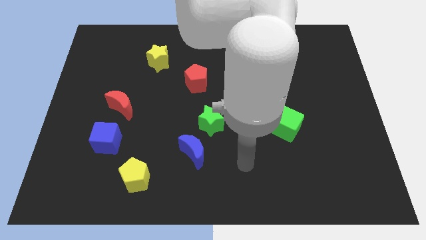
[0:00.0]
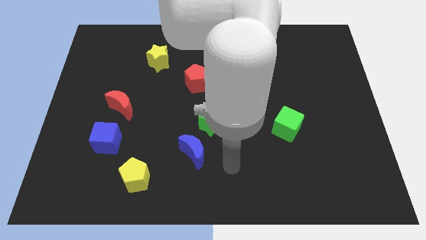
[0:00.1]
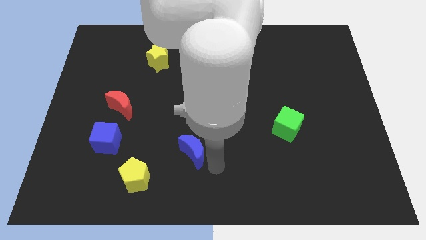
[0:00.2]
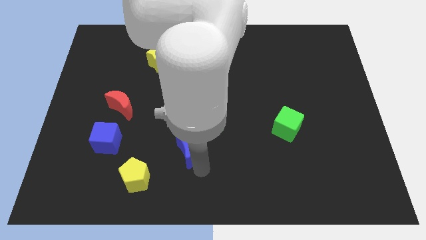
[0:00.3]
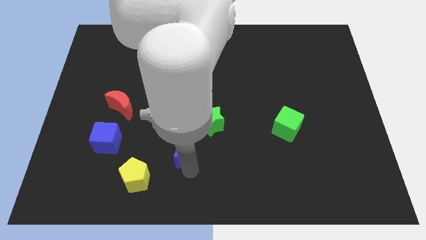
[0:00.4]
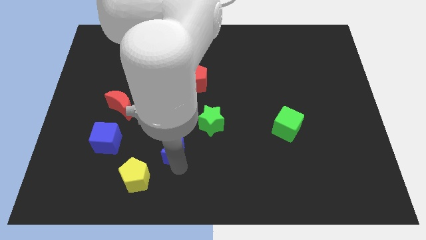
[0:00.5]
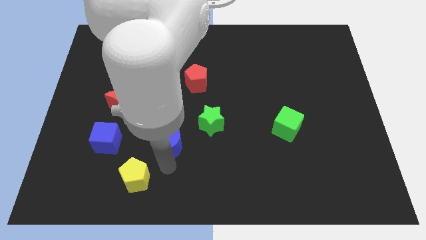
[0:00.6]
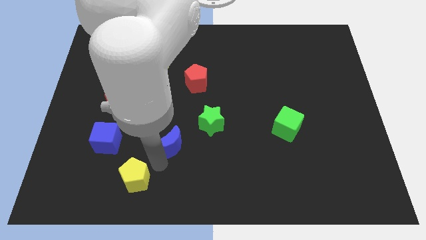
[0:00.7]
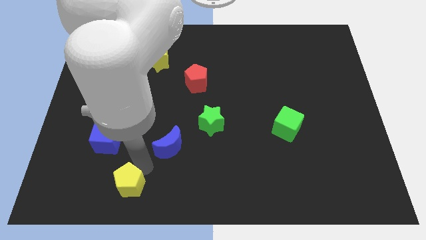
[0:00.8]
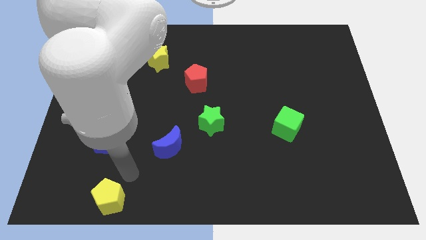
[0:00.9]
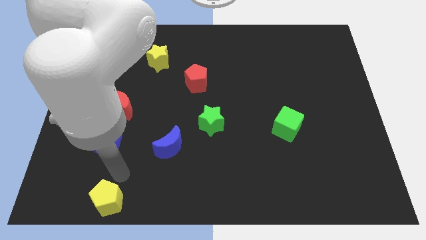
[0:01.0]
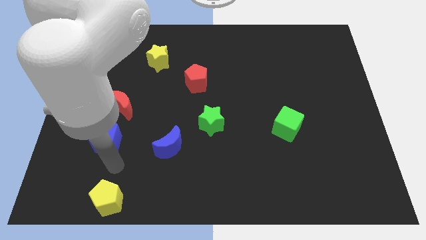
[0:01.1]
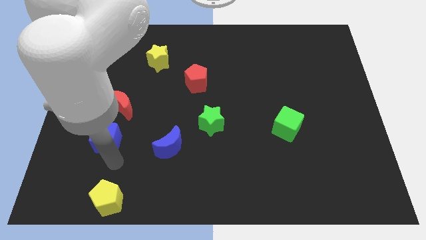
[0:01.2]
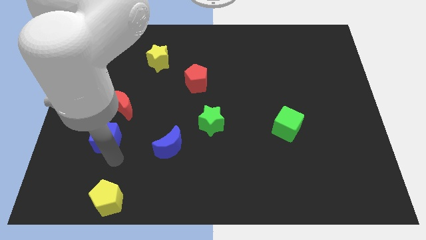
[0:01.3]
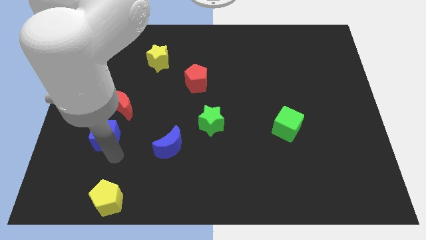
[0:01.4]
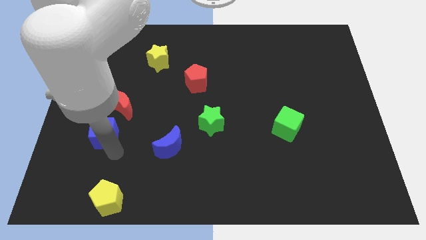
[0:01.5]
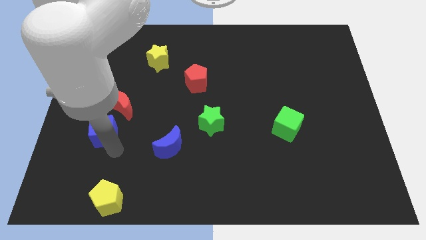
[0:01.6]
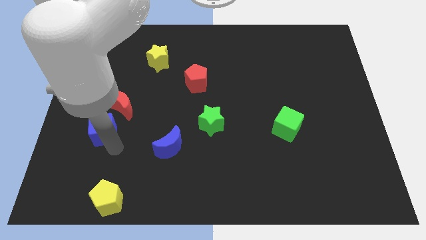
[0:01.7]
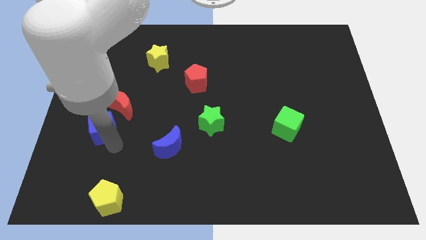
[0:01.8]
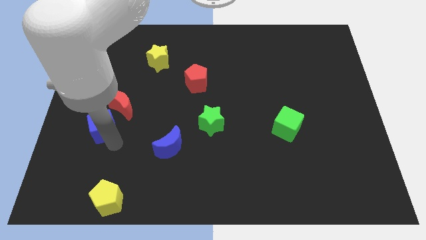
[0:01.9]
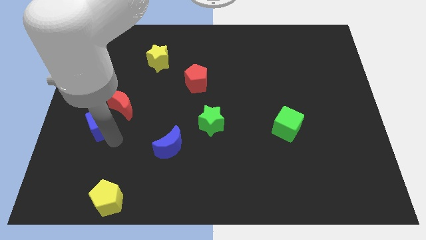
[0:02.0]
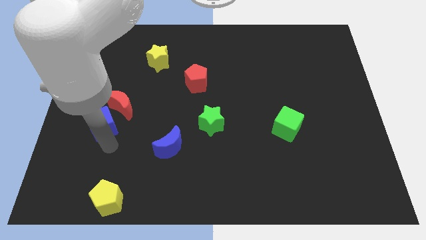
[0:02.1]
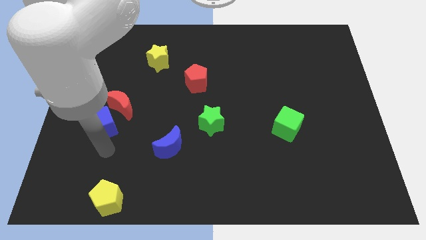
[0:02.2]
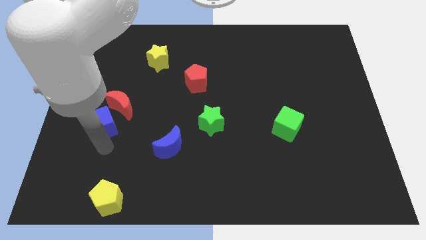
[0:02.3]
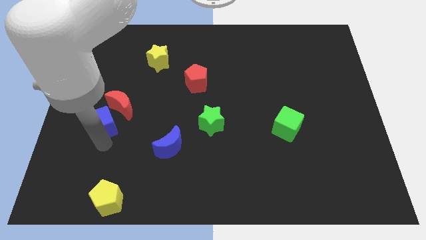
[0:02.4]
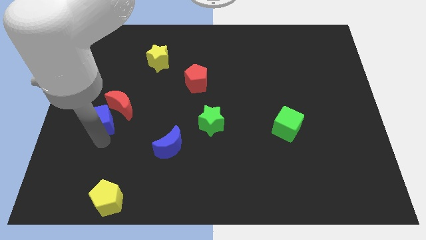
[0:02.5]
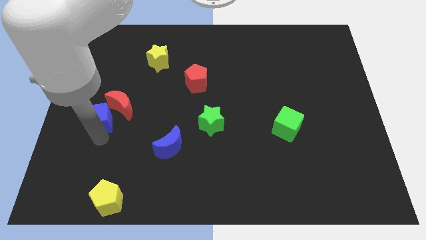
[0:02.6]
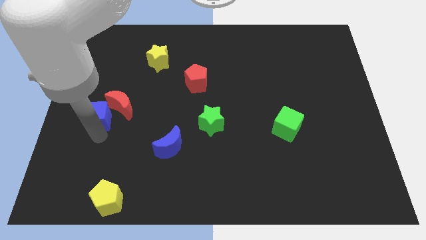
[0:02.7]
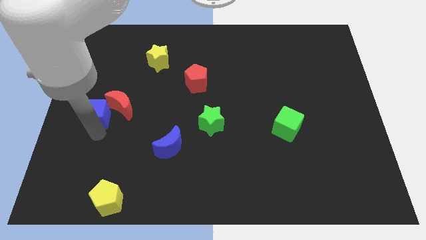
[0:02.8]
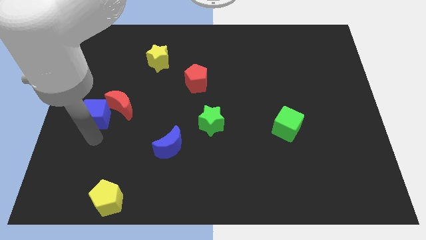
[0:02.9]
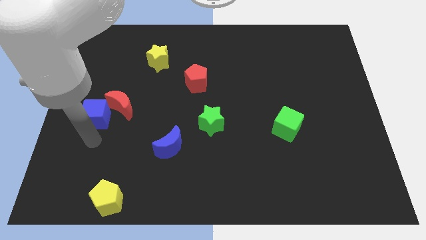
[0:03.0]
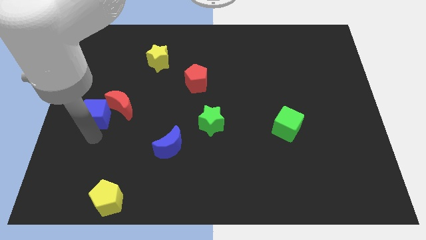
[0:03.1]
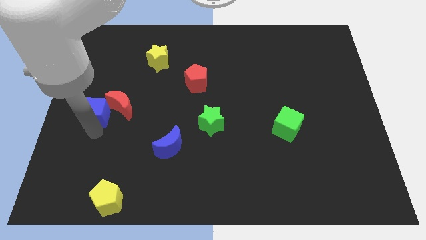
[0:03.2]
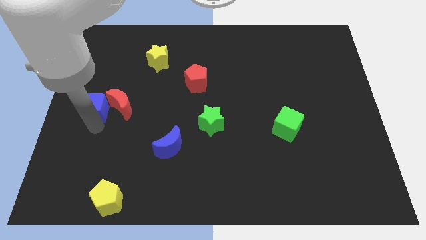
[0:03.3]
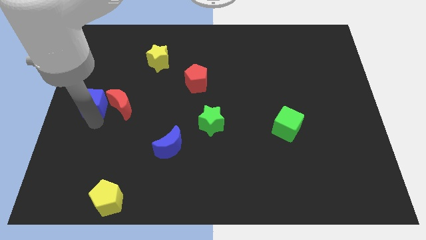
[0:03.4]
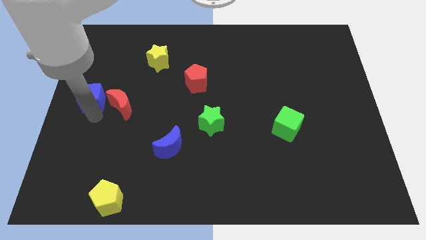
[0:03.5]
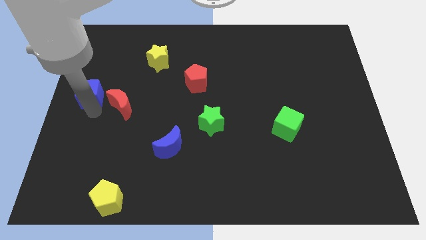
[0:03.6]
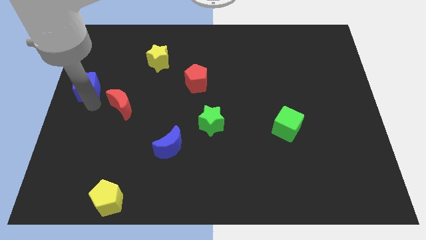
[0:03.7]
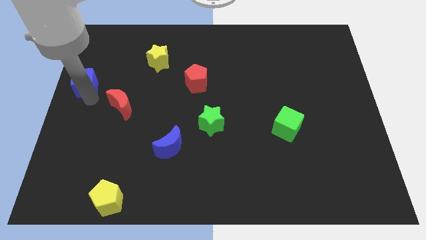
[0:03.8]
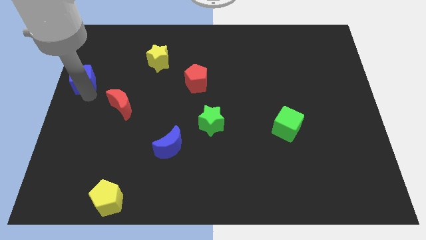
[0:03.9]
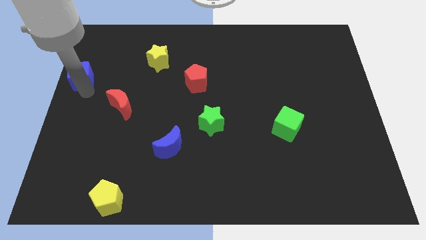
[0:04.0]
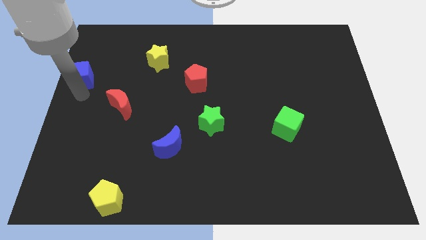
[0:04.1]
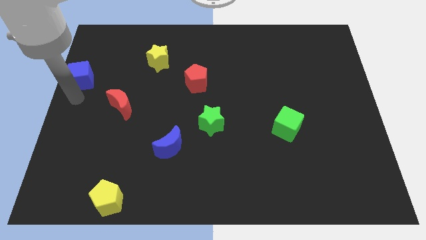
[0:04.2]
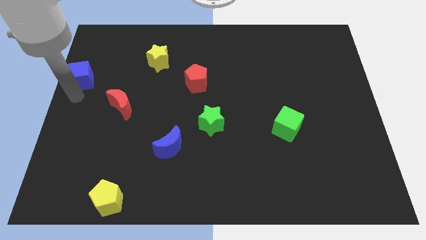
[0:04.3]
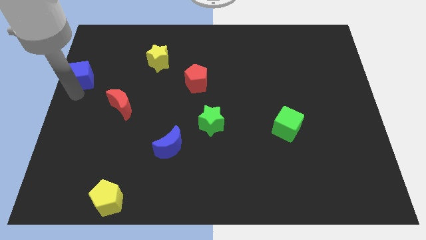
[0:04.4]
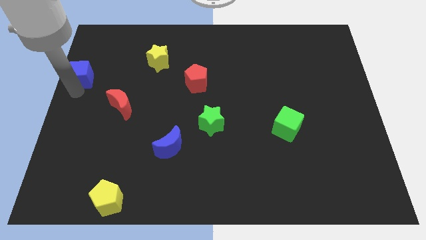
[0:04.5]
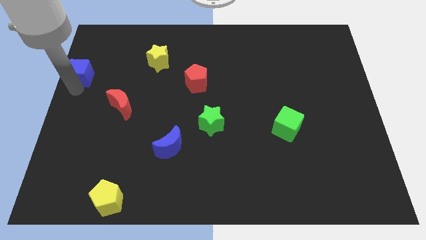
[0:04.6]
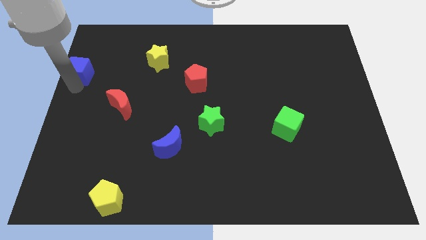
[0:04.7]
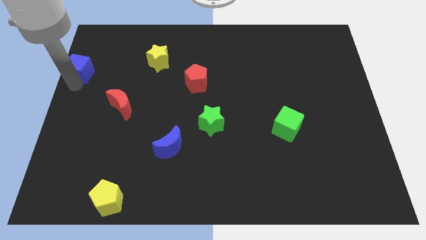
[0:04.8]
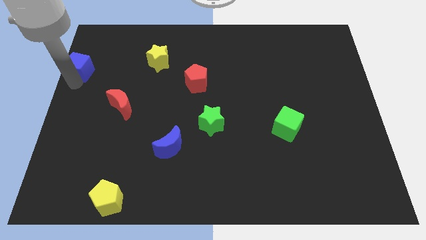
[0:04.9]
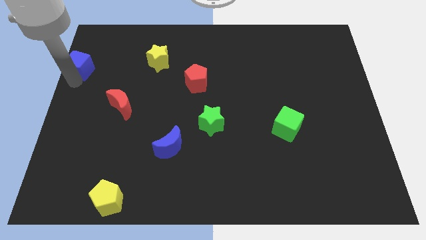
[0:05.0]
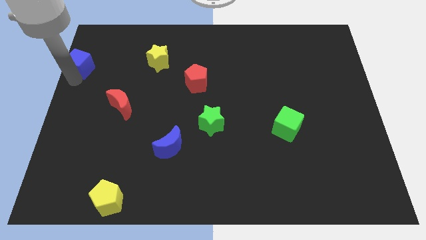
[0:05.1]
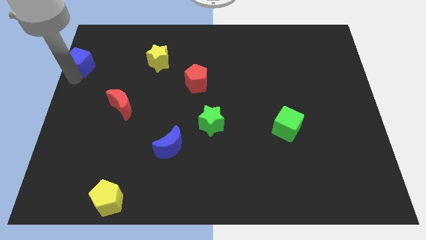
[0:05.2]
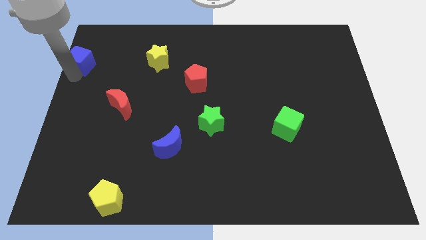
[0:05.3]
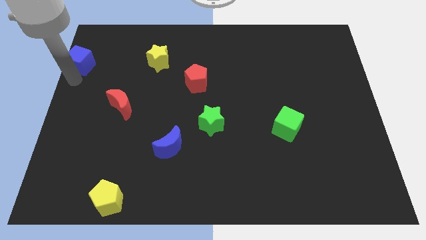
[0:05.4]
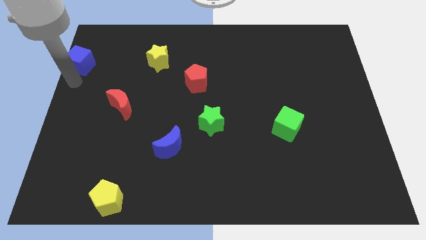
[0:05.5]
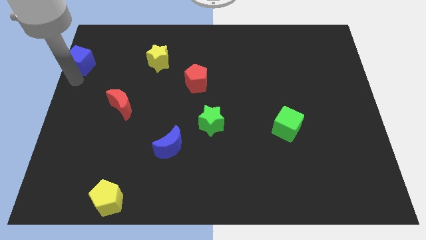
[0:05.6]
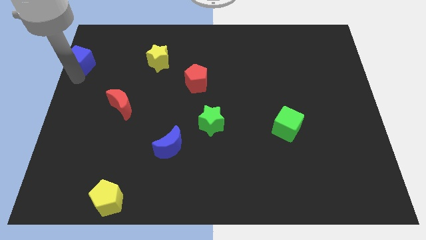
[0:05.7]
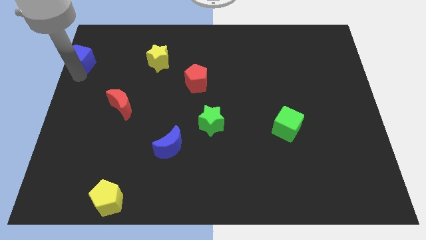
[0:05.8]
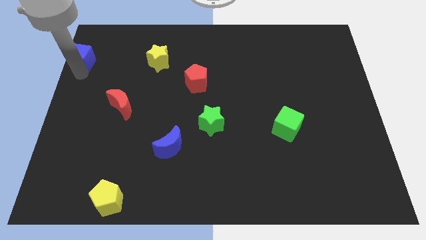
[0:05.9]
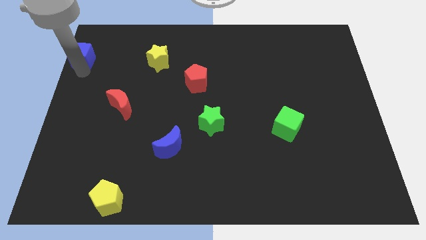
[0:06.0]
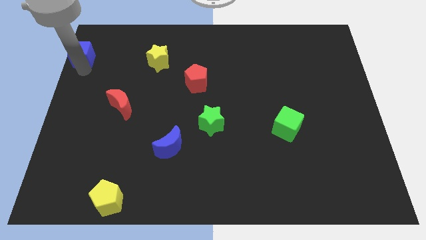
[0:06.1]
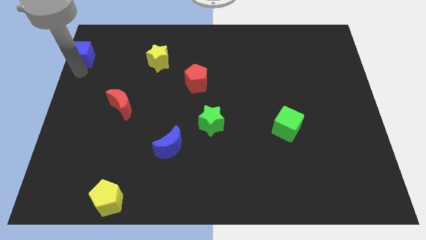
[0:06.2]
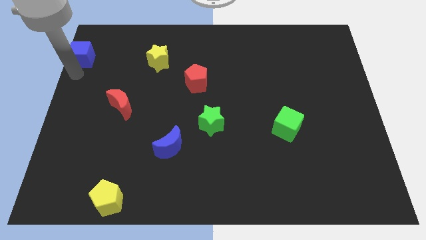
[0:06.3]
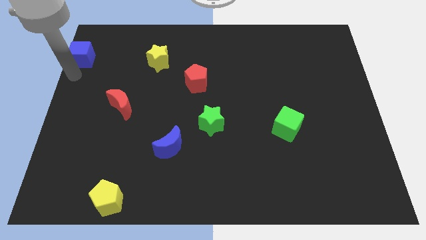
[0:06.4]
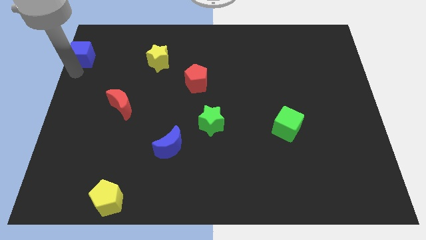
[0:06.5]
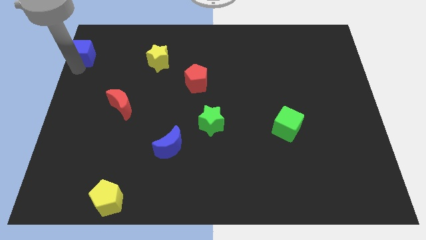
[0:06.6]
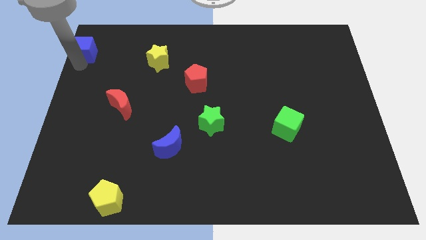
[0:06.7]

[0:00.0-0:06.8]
move the blue cube to the top left of the board

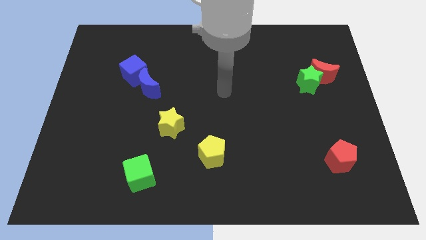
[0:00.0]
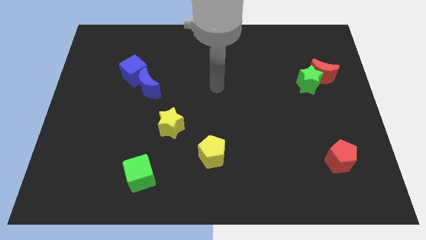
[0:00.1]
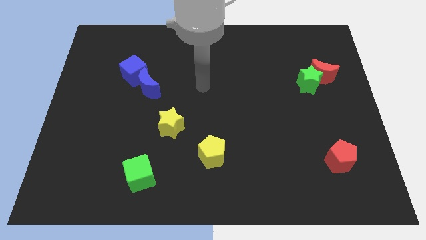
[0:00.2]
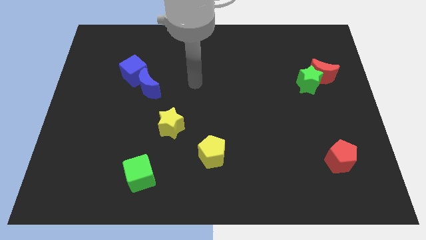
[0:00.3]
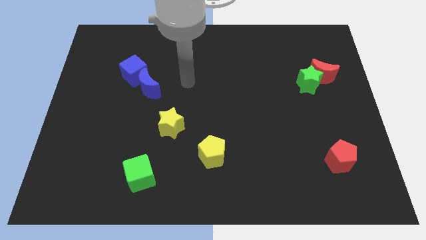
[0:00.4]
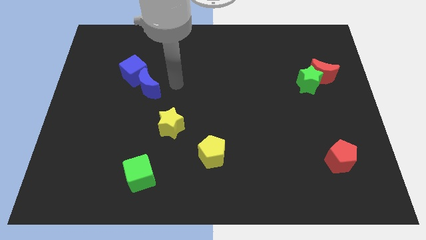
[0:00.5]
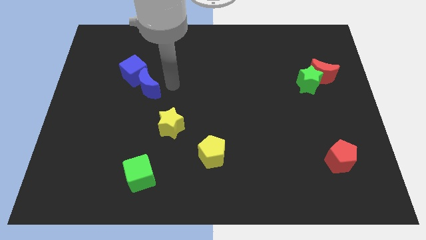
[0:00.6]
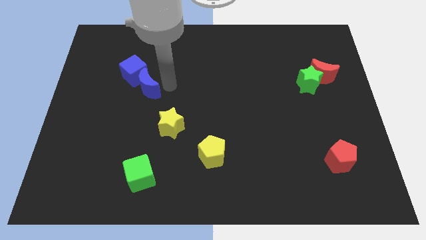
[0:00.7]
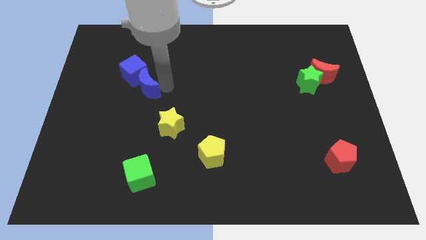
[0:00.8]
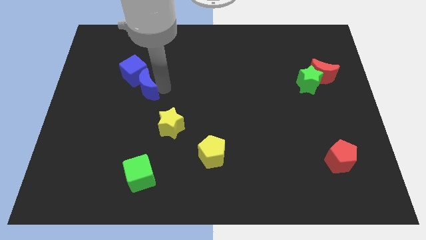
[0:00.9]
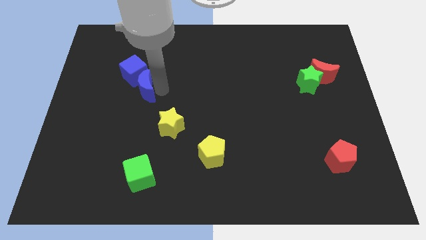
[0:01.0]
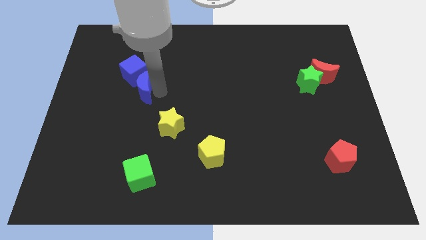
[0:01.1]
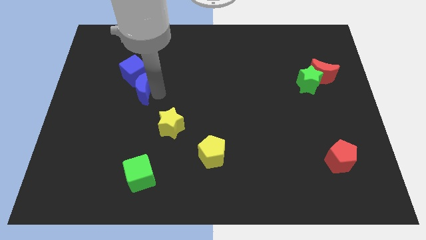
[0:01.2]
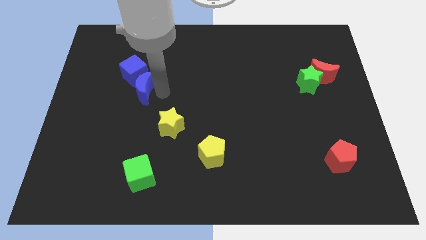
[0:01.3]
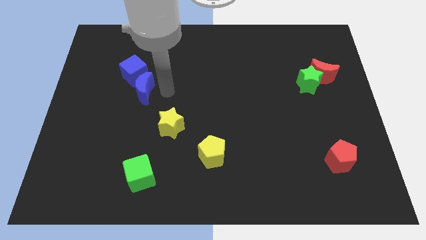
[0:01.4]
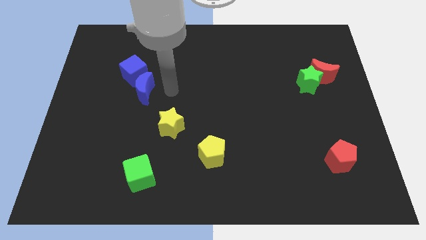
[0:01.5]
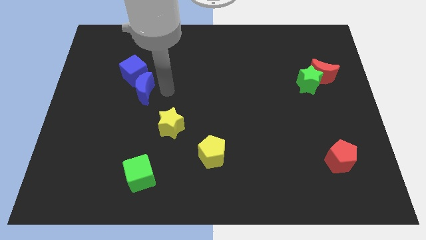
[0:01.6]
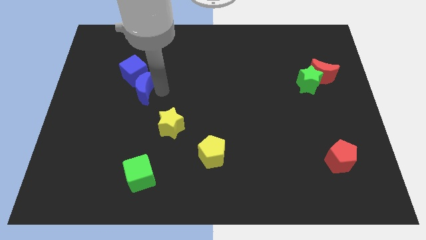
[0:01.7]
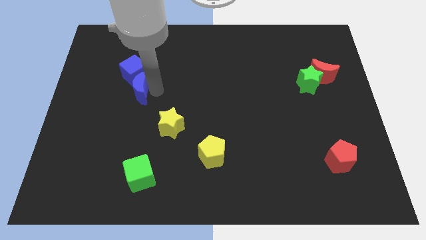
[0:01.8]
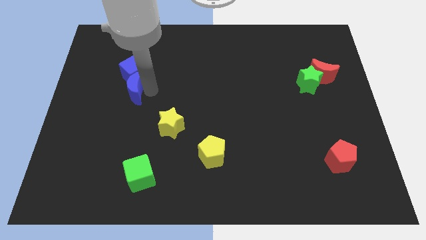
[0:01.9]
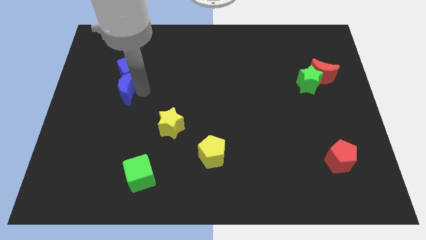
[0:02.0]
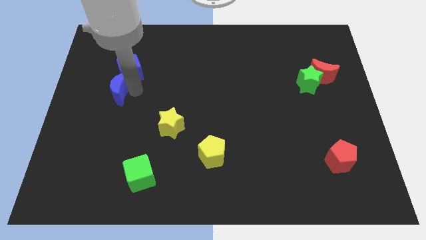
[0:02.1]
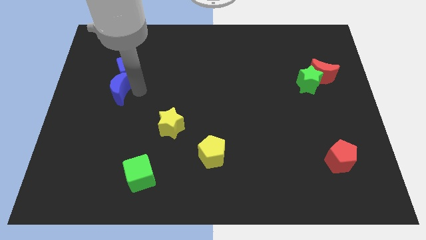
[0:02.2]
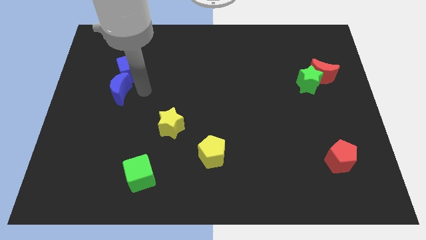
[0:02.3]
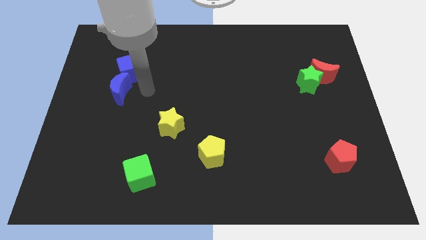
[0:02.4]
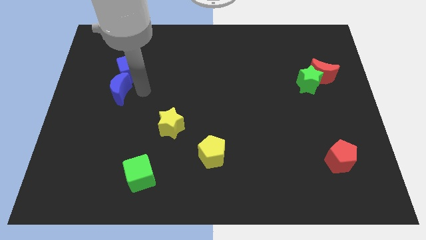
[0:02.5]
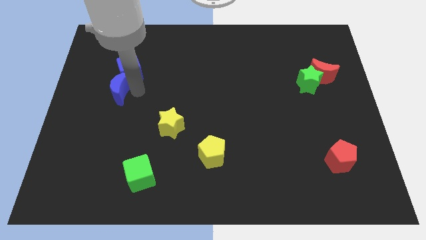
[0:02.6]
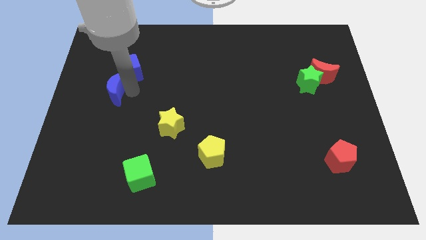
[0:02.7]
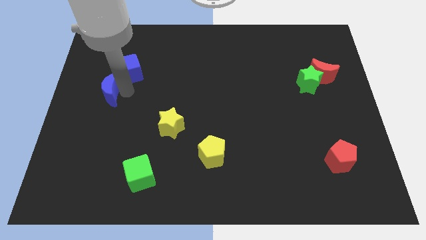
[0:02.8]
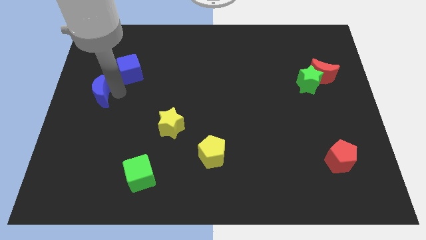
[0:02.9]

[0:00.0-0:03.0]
push the blue moon to the left side
